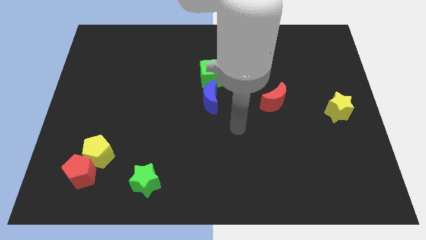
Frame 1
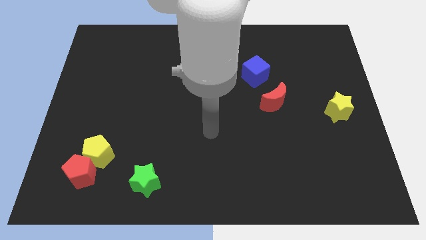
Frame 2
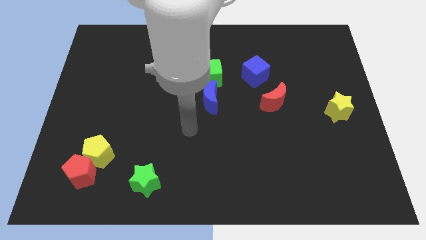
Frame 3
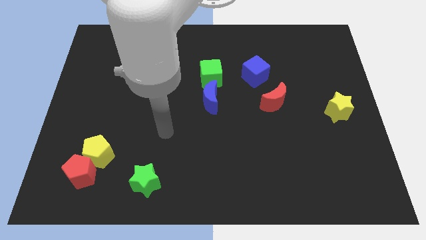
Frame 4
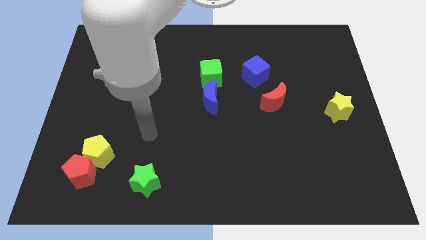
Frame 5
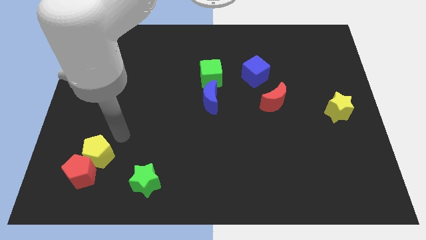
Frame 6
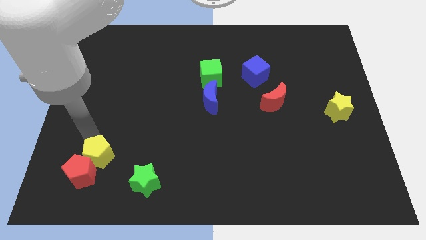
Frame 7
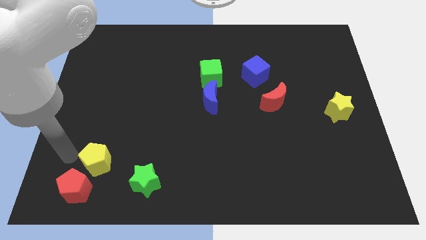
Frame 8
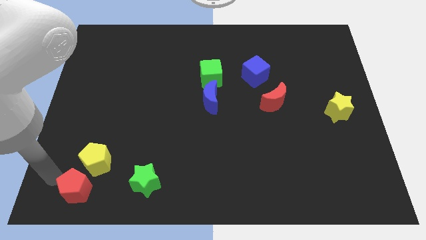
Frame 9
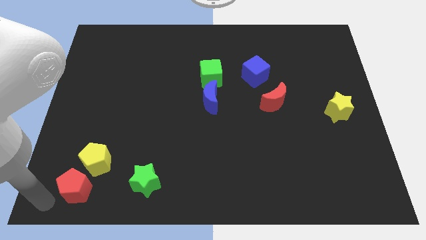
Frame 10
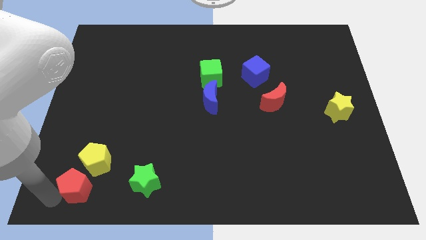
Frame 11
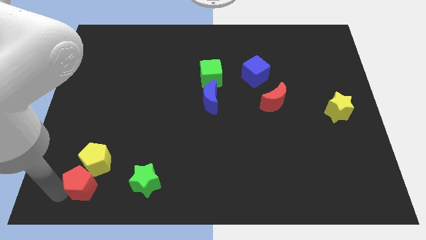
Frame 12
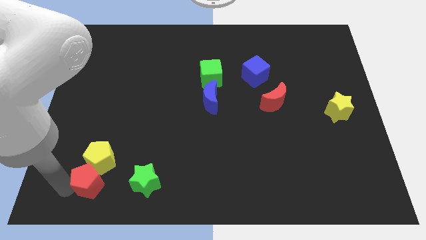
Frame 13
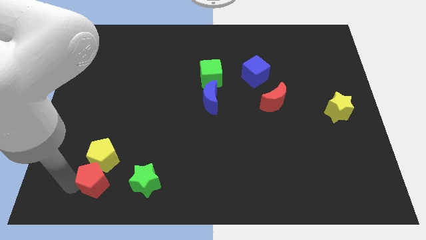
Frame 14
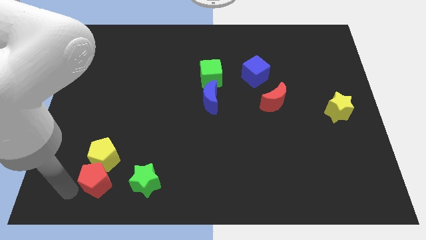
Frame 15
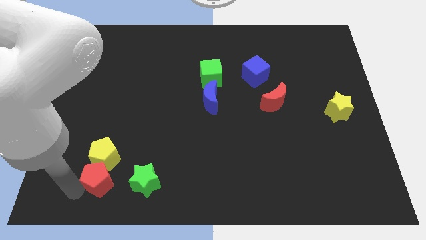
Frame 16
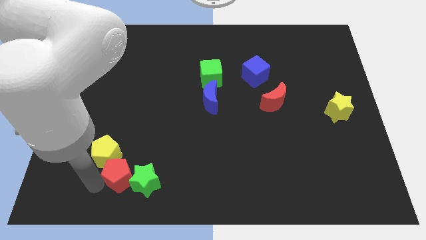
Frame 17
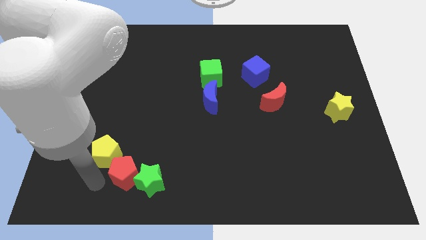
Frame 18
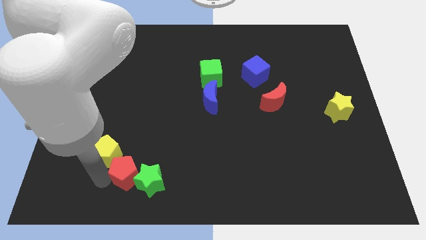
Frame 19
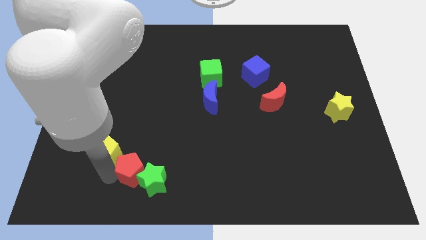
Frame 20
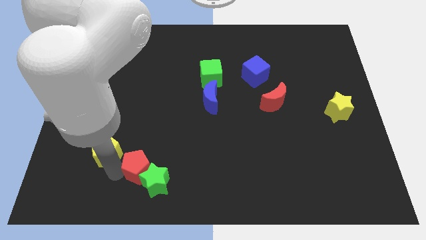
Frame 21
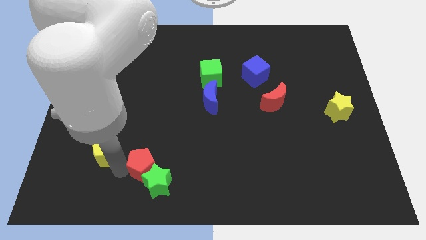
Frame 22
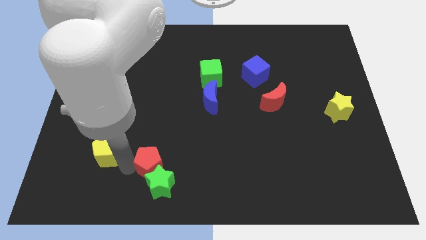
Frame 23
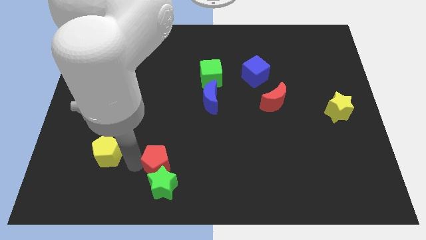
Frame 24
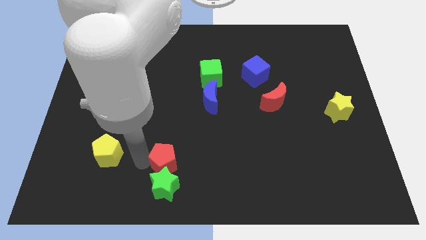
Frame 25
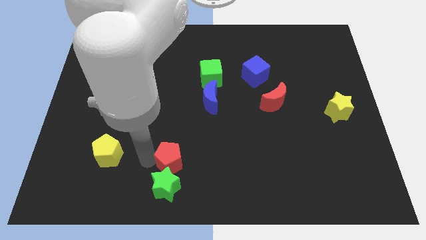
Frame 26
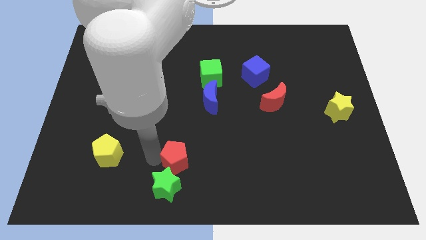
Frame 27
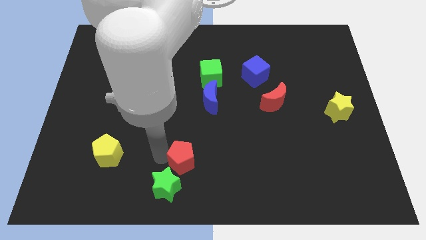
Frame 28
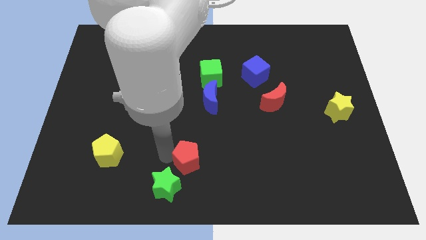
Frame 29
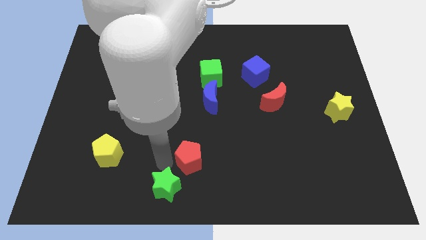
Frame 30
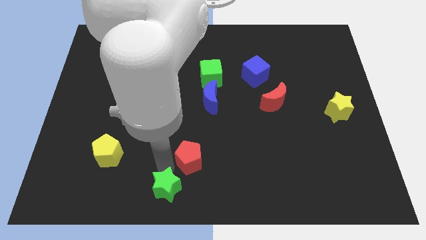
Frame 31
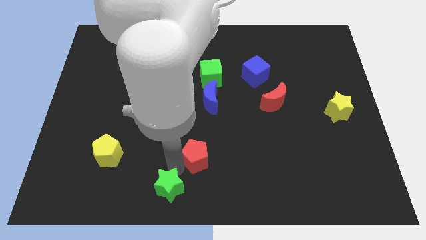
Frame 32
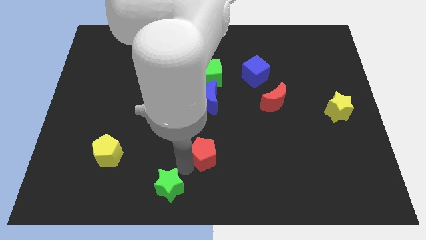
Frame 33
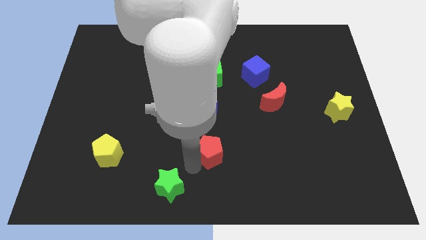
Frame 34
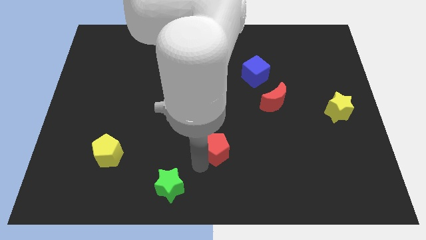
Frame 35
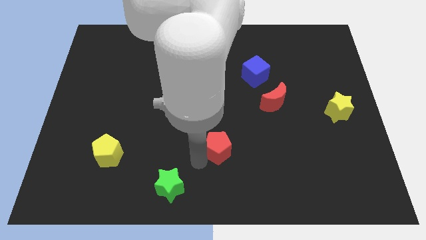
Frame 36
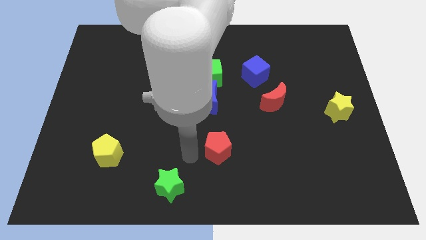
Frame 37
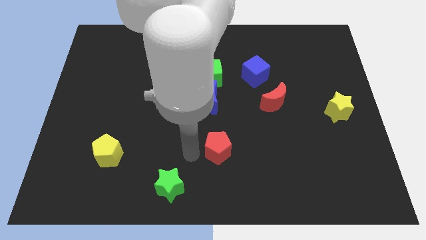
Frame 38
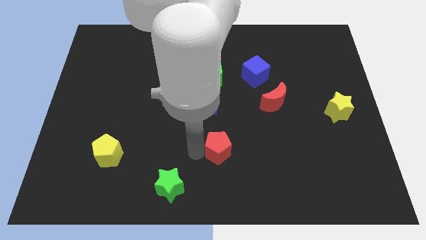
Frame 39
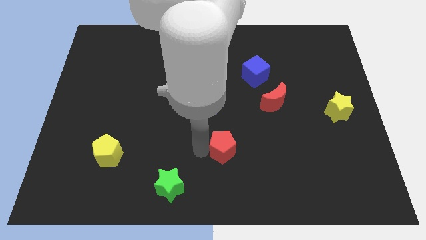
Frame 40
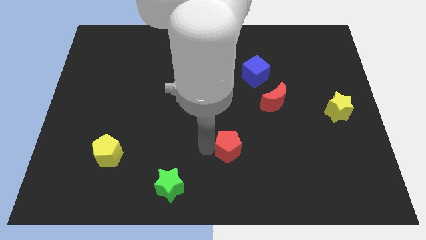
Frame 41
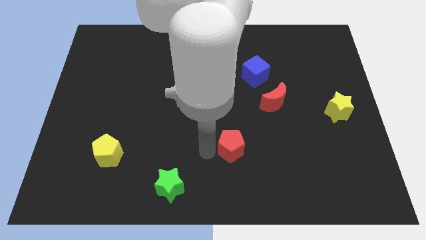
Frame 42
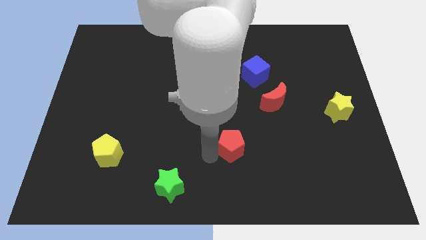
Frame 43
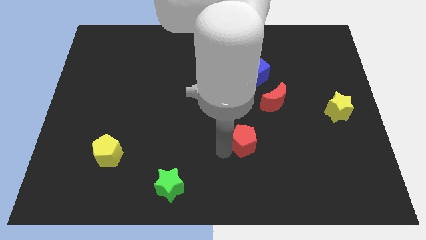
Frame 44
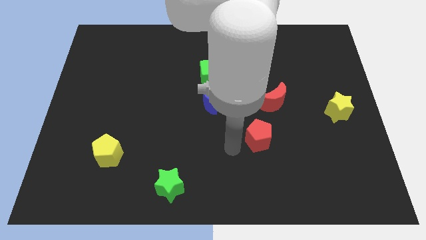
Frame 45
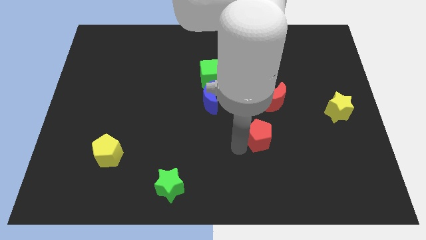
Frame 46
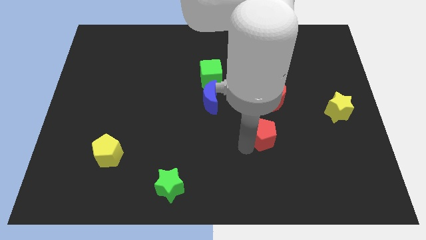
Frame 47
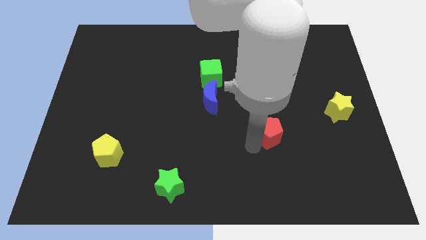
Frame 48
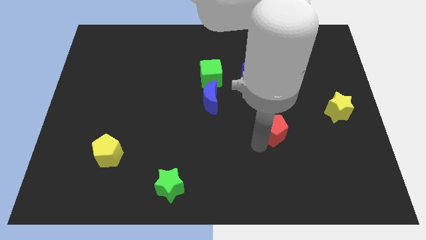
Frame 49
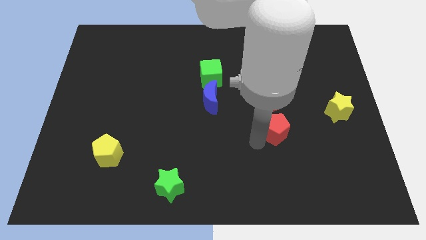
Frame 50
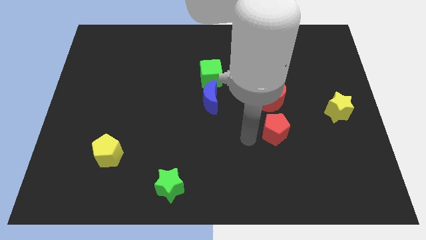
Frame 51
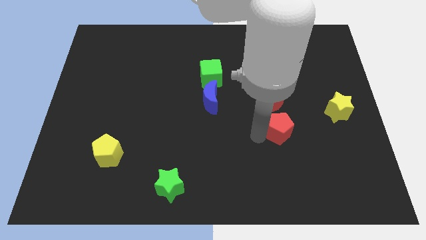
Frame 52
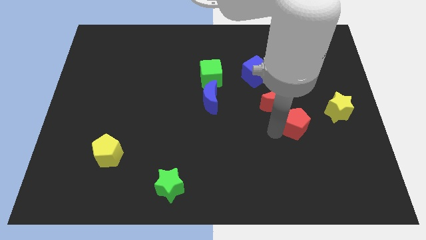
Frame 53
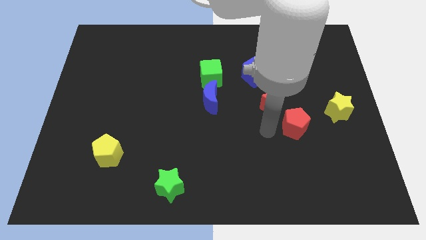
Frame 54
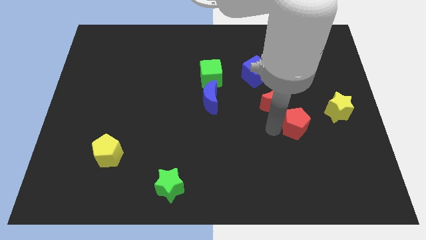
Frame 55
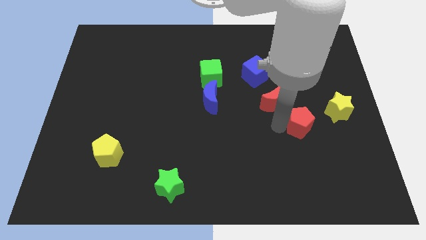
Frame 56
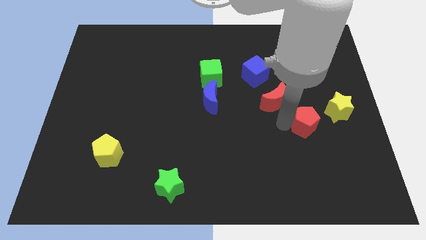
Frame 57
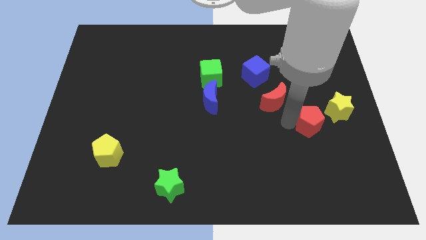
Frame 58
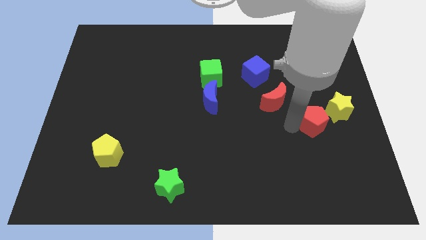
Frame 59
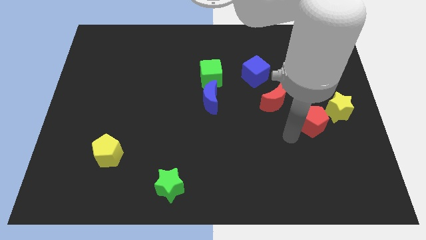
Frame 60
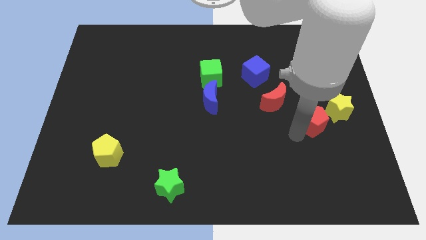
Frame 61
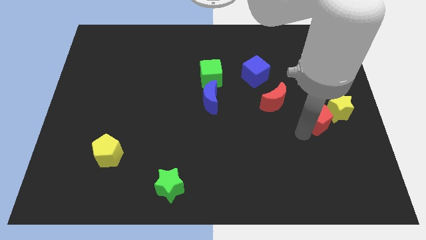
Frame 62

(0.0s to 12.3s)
put the red pentagon next to the yellow star
